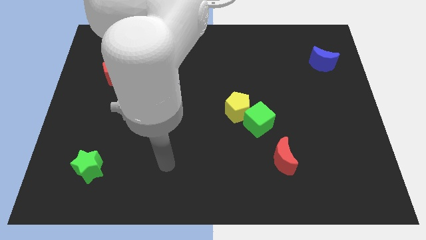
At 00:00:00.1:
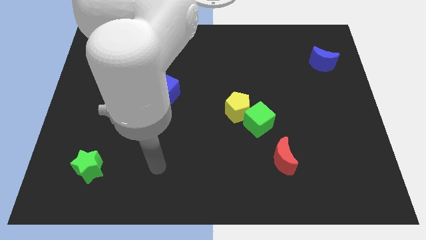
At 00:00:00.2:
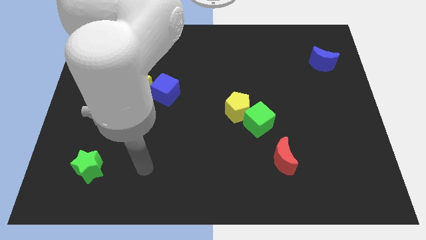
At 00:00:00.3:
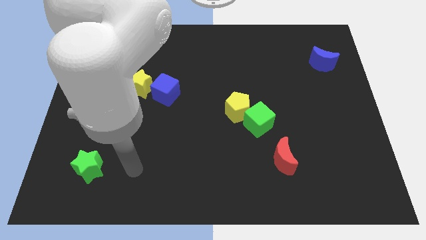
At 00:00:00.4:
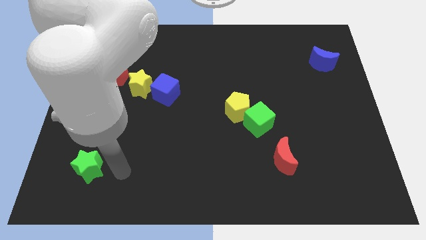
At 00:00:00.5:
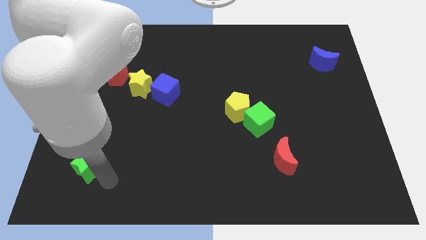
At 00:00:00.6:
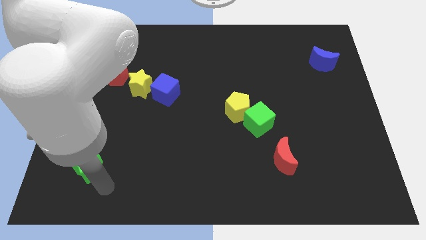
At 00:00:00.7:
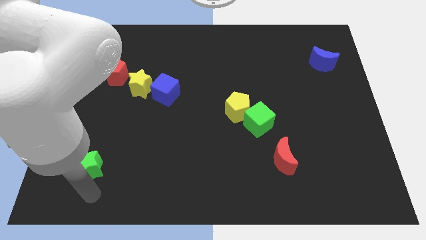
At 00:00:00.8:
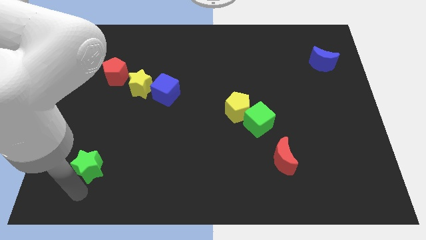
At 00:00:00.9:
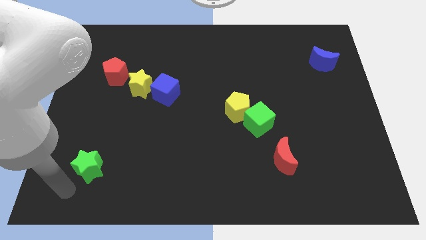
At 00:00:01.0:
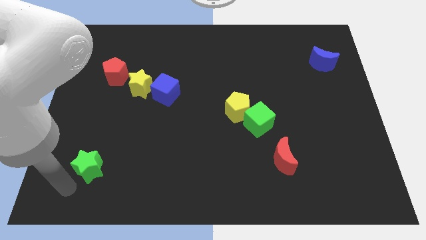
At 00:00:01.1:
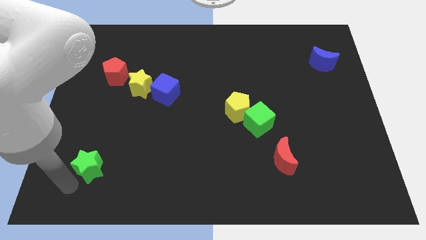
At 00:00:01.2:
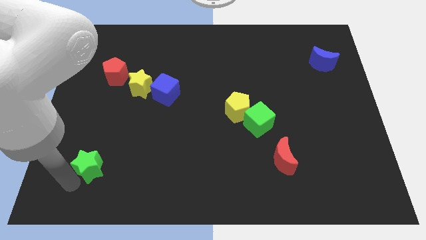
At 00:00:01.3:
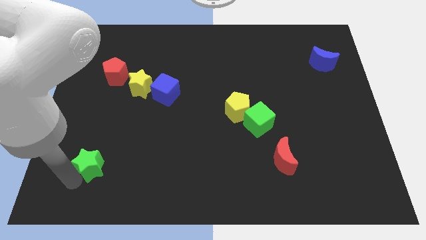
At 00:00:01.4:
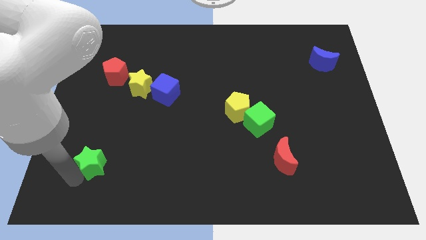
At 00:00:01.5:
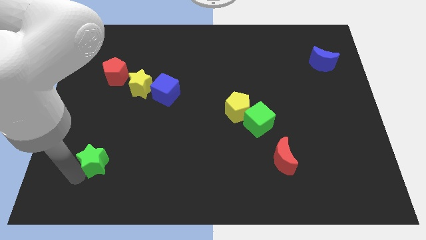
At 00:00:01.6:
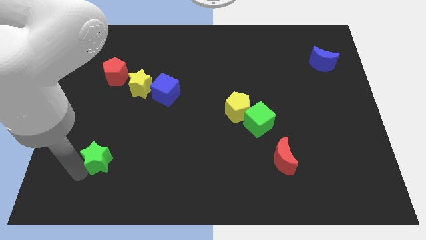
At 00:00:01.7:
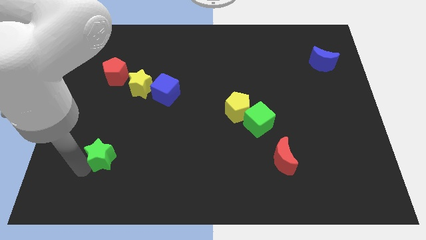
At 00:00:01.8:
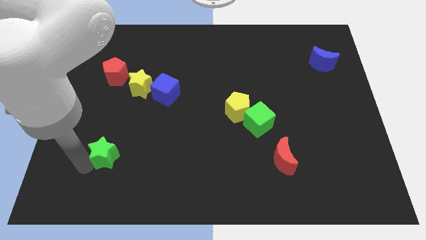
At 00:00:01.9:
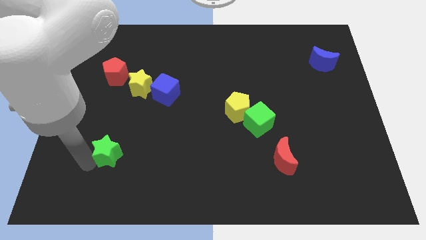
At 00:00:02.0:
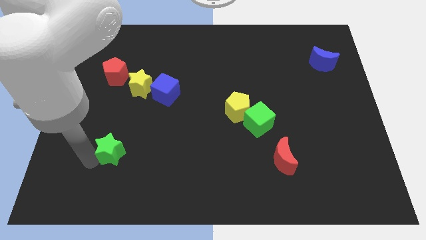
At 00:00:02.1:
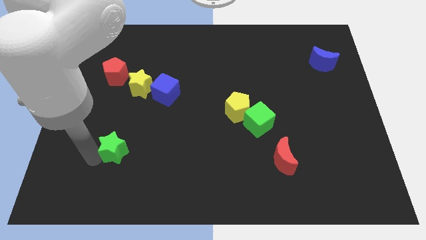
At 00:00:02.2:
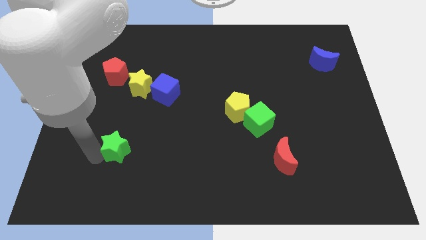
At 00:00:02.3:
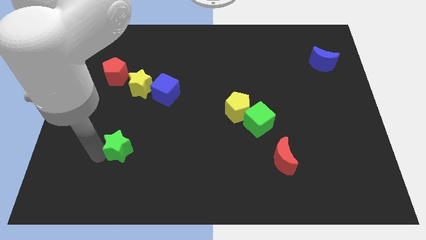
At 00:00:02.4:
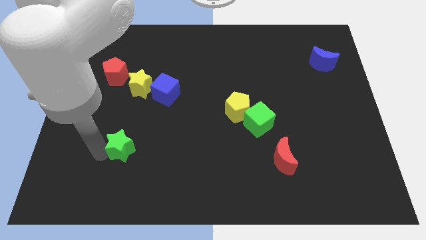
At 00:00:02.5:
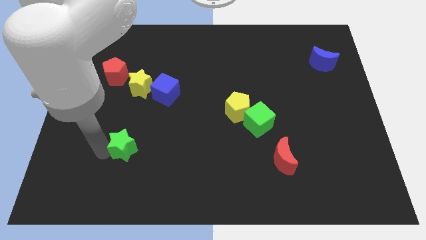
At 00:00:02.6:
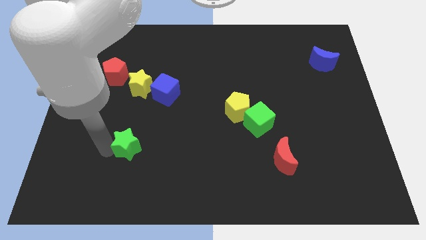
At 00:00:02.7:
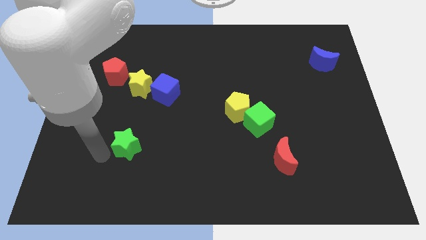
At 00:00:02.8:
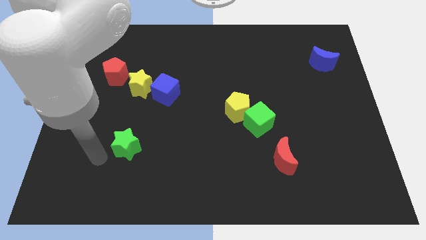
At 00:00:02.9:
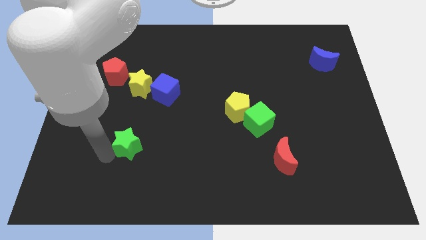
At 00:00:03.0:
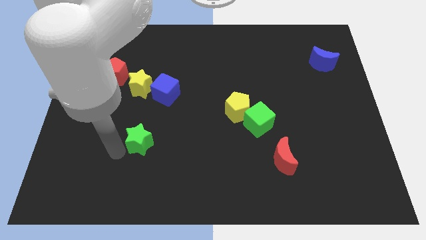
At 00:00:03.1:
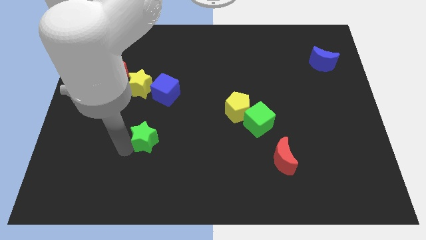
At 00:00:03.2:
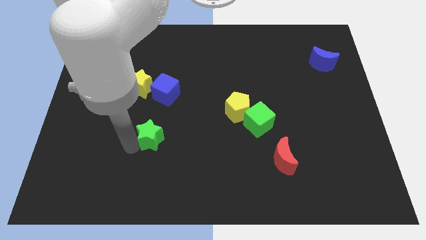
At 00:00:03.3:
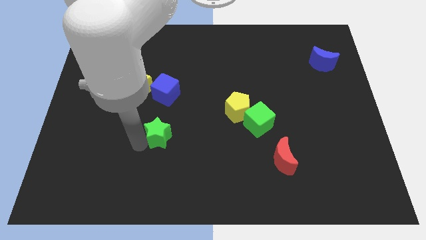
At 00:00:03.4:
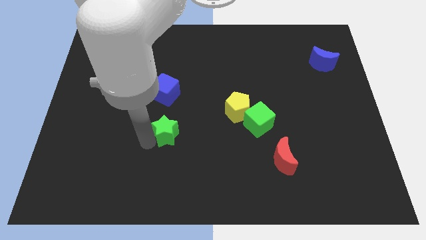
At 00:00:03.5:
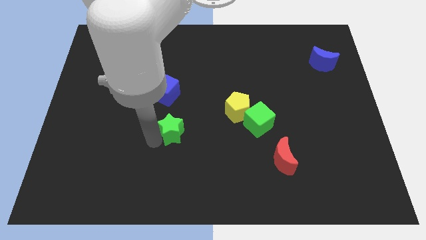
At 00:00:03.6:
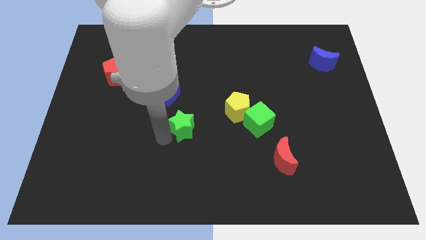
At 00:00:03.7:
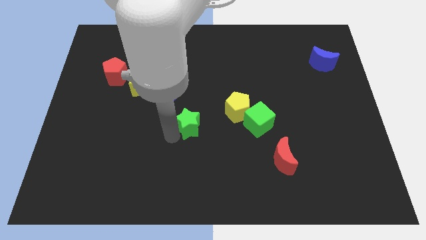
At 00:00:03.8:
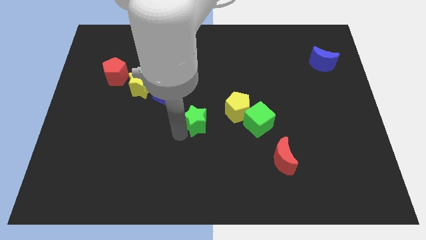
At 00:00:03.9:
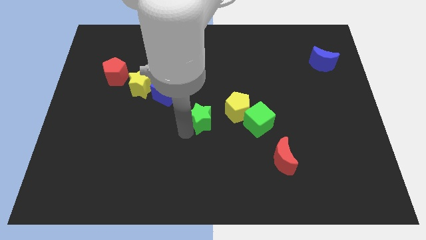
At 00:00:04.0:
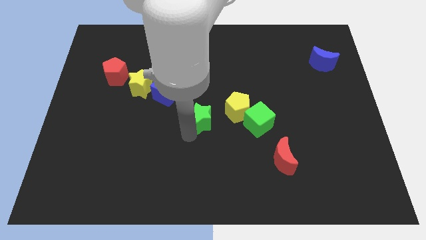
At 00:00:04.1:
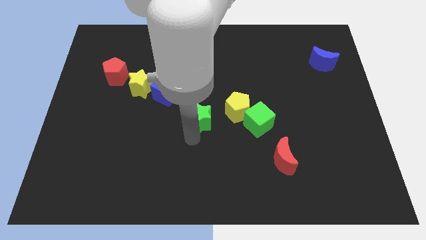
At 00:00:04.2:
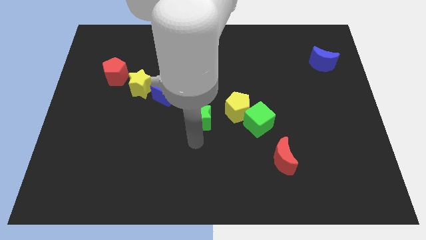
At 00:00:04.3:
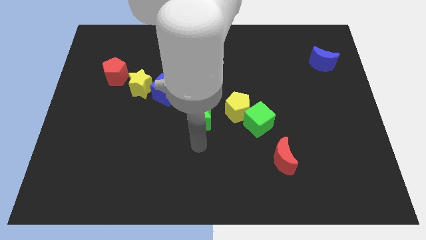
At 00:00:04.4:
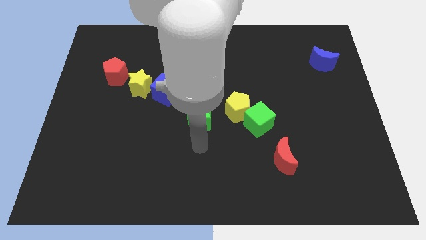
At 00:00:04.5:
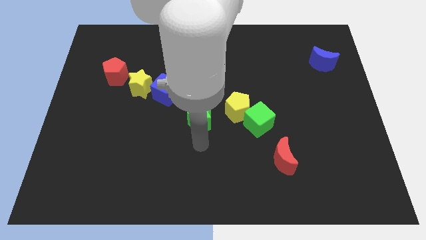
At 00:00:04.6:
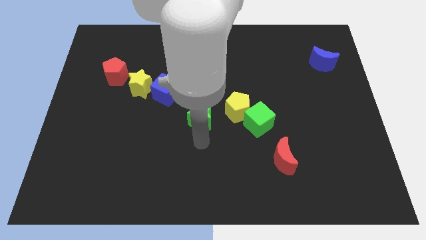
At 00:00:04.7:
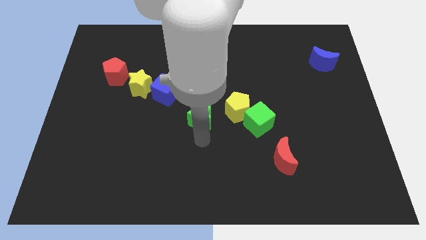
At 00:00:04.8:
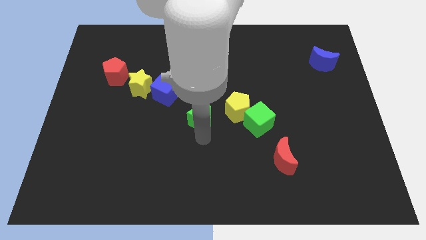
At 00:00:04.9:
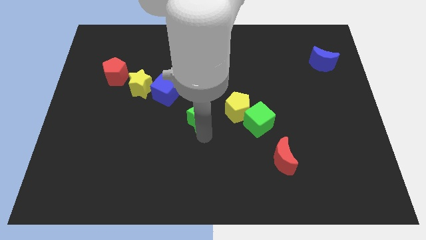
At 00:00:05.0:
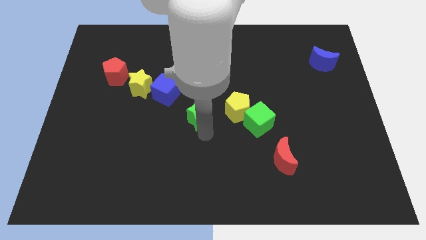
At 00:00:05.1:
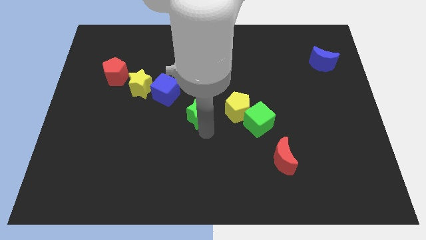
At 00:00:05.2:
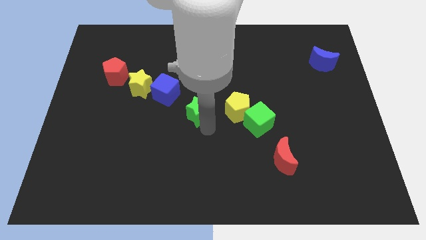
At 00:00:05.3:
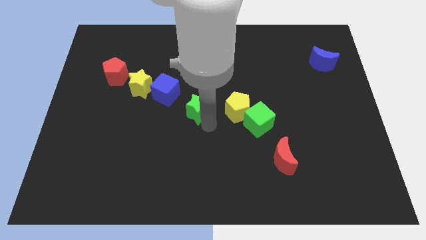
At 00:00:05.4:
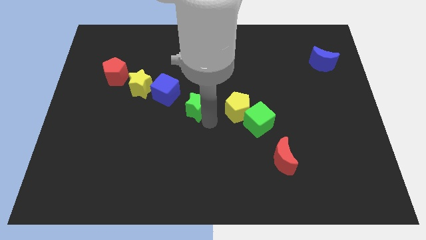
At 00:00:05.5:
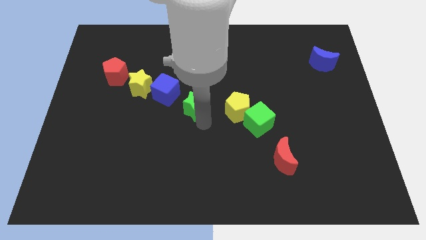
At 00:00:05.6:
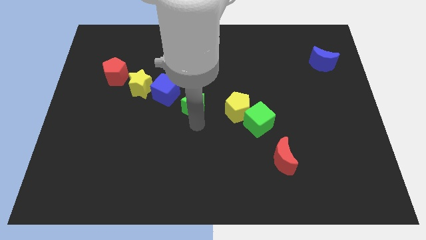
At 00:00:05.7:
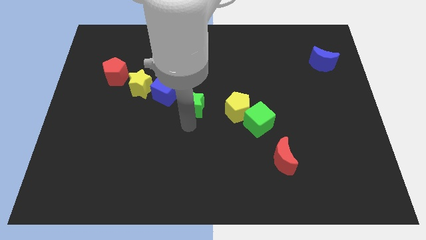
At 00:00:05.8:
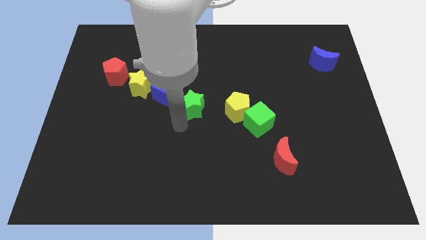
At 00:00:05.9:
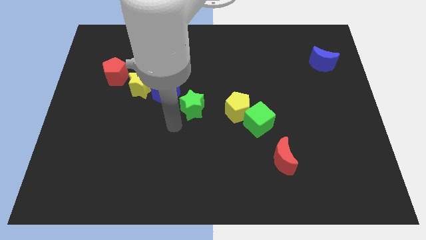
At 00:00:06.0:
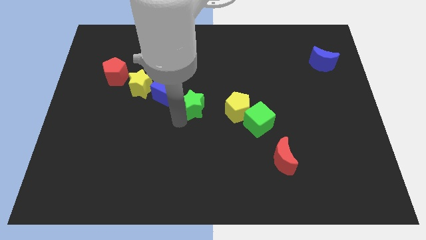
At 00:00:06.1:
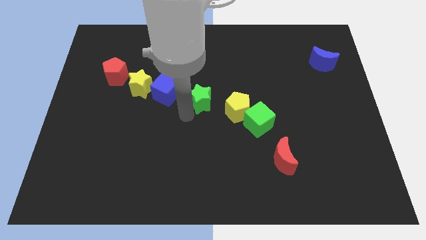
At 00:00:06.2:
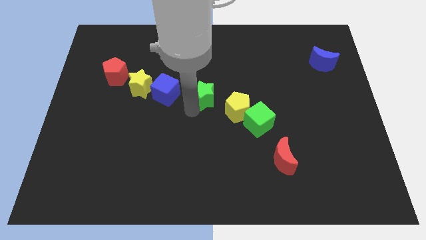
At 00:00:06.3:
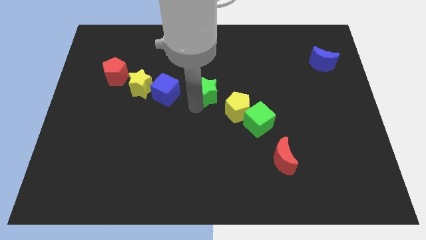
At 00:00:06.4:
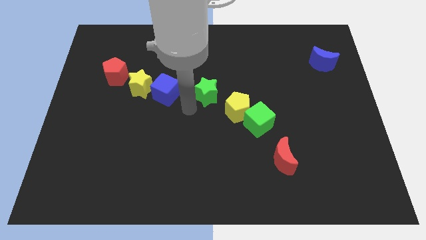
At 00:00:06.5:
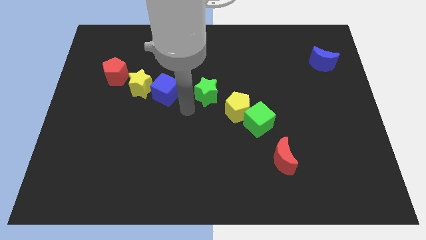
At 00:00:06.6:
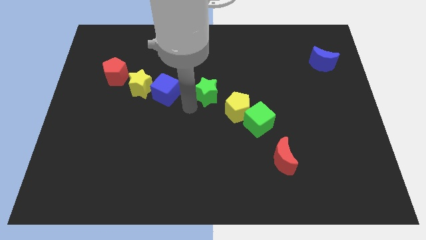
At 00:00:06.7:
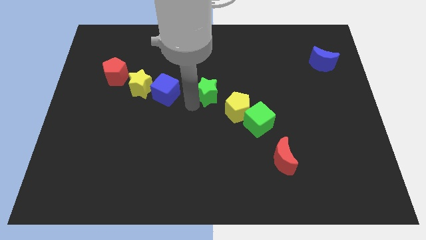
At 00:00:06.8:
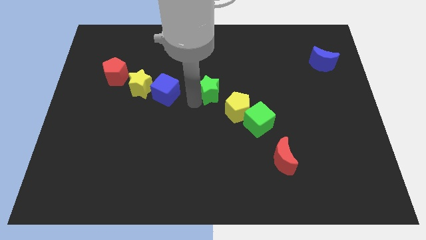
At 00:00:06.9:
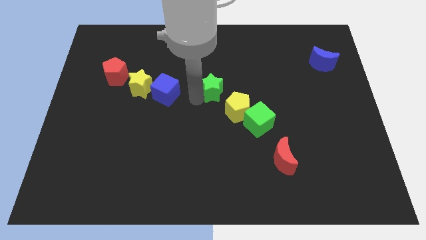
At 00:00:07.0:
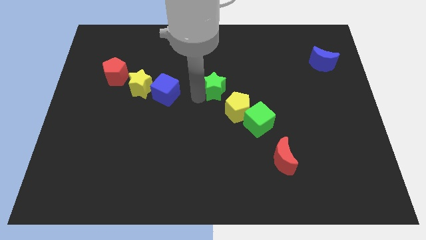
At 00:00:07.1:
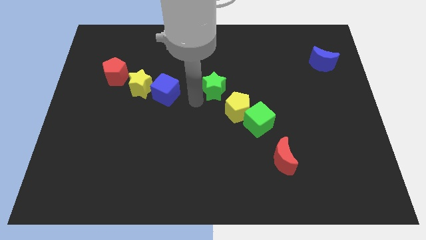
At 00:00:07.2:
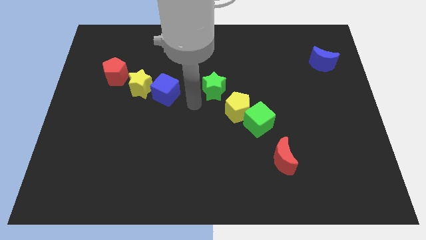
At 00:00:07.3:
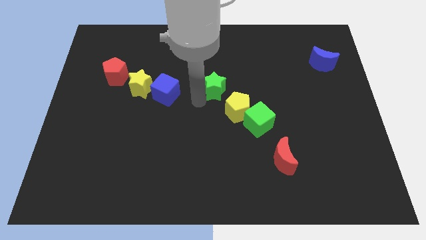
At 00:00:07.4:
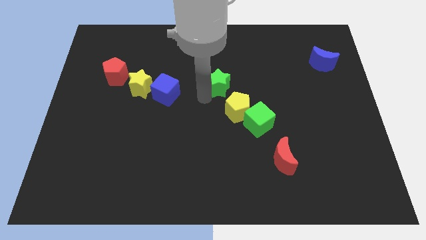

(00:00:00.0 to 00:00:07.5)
put the green star to the top side of the yellow pentagon

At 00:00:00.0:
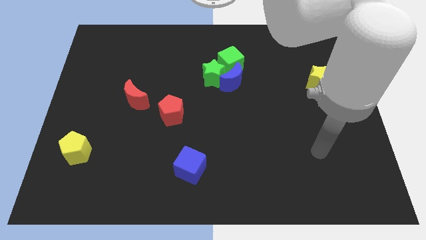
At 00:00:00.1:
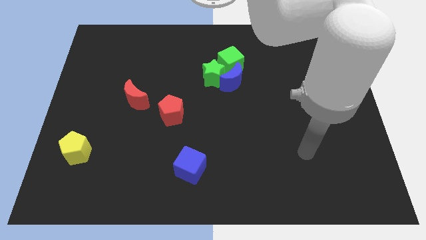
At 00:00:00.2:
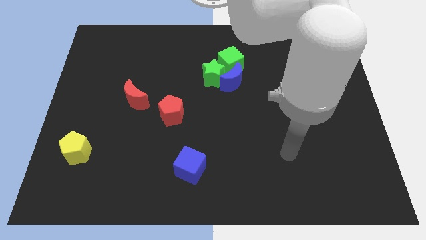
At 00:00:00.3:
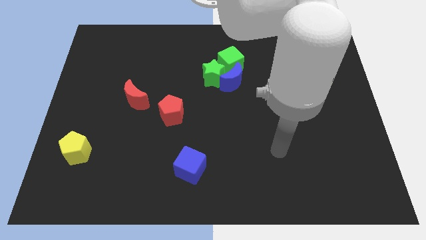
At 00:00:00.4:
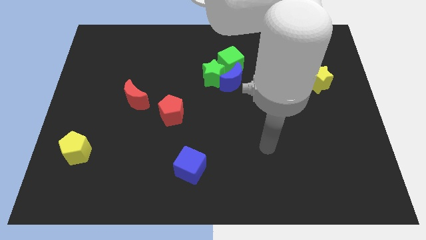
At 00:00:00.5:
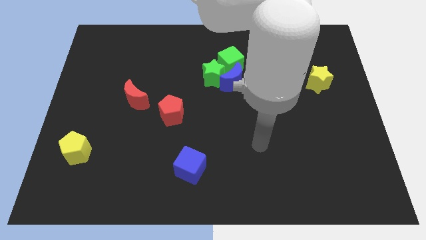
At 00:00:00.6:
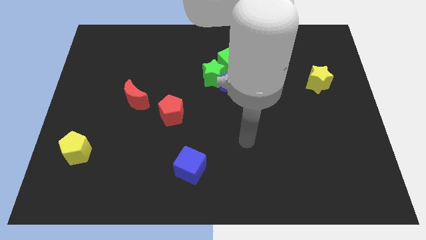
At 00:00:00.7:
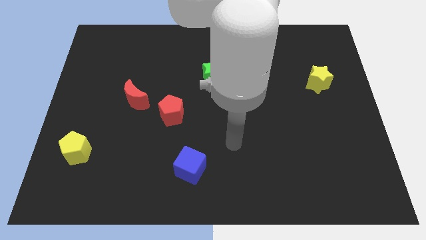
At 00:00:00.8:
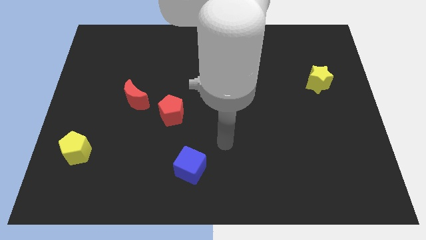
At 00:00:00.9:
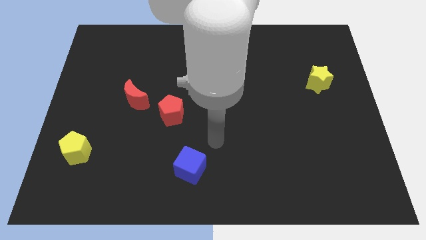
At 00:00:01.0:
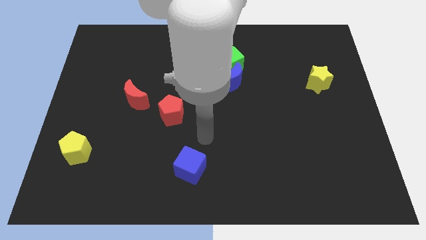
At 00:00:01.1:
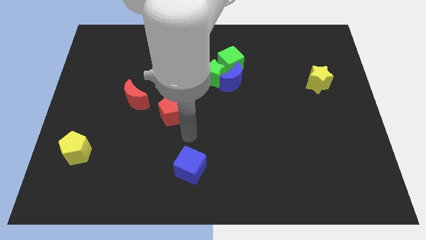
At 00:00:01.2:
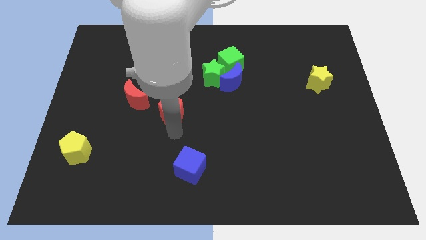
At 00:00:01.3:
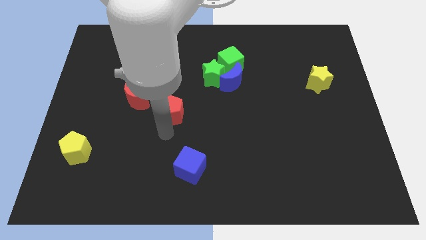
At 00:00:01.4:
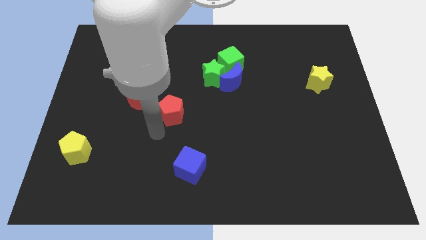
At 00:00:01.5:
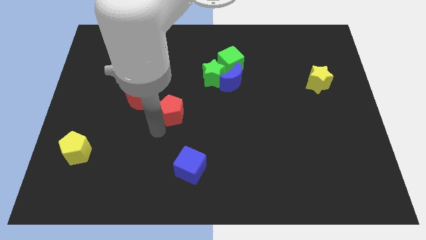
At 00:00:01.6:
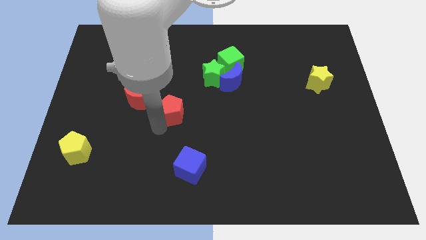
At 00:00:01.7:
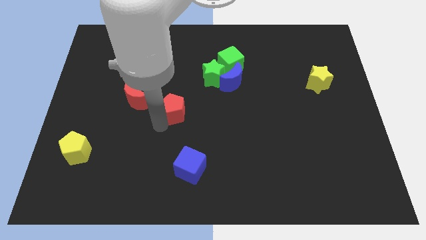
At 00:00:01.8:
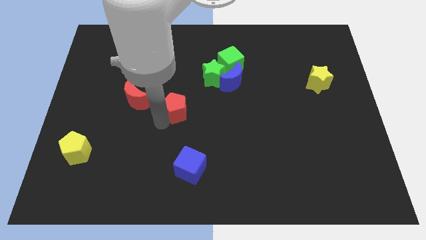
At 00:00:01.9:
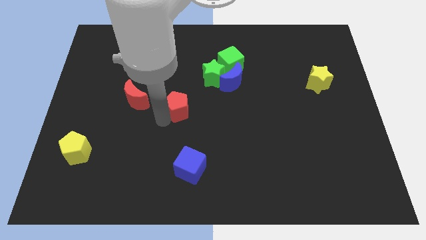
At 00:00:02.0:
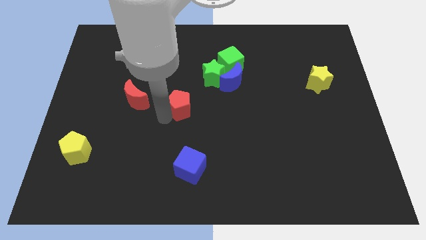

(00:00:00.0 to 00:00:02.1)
put the red pentagon to the bottom left of the green star
